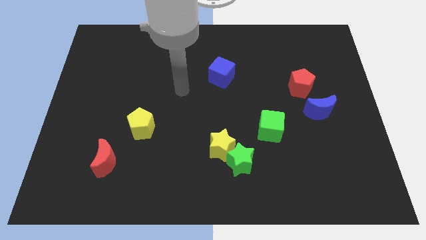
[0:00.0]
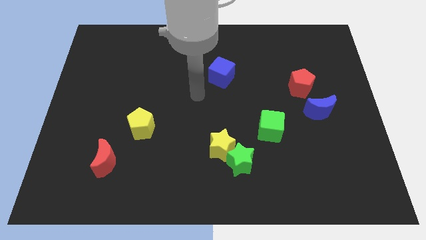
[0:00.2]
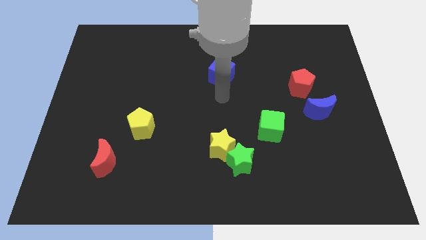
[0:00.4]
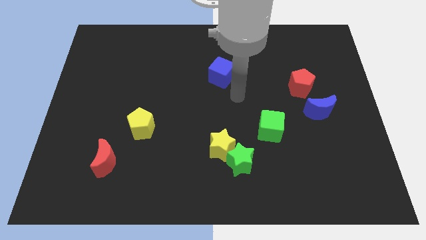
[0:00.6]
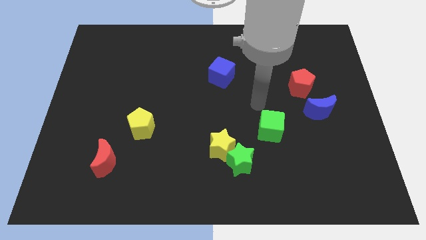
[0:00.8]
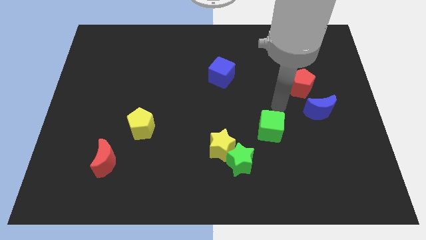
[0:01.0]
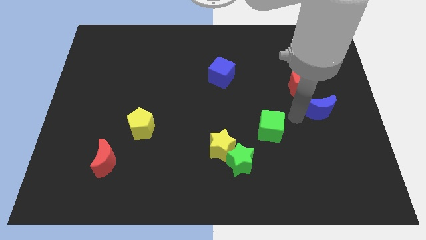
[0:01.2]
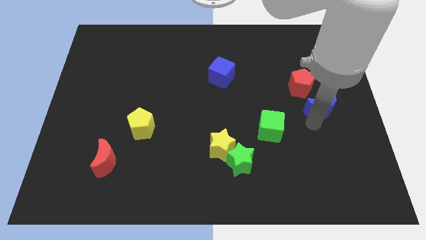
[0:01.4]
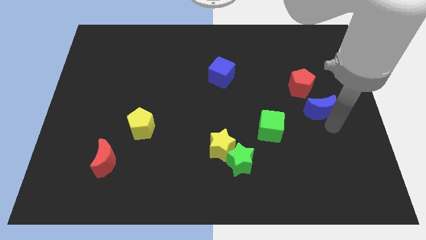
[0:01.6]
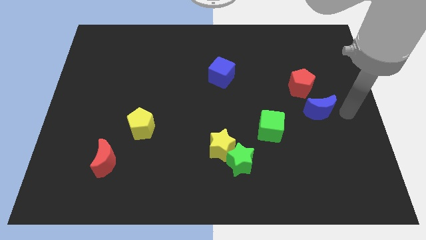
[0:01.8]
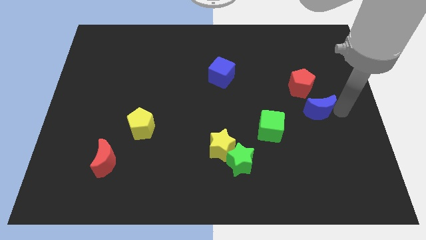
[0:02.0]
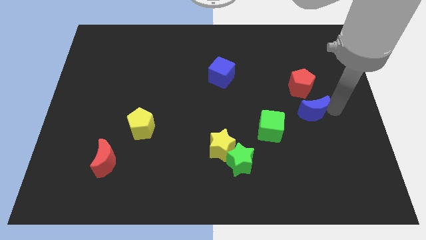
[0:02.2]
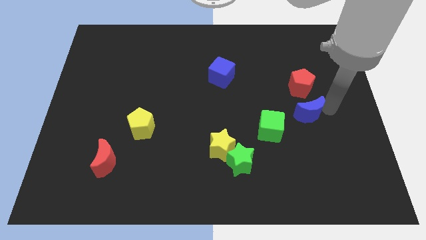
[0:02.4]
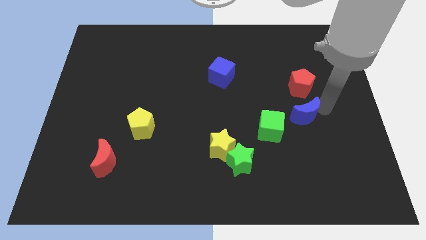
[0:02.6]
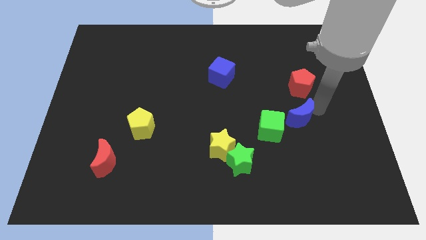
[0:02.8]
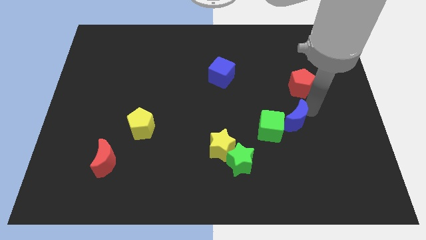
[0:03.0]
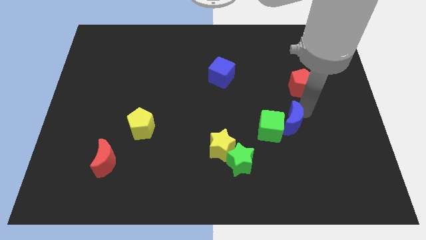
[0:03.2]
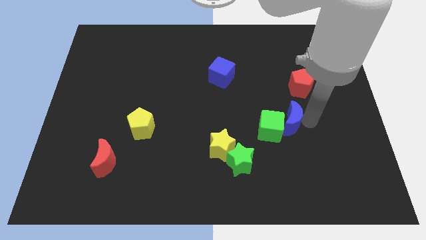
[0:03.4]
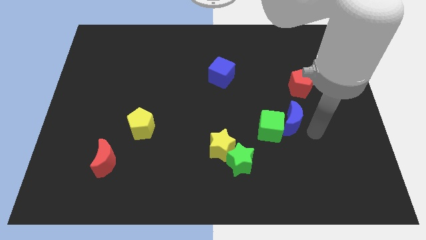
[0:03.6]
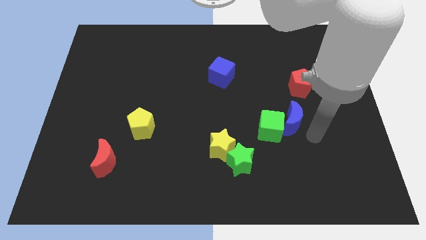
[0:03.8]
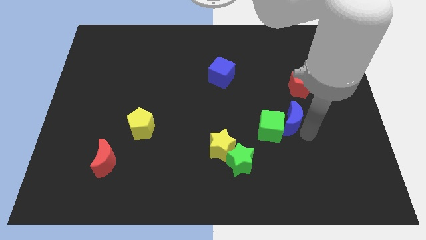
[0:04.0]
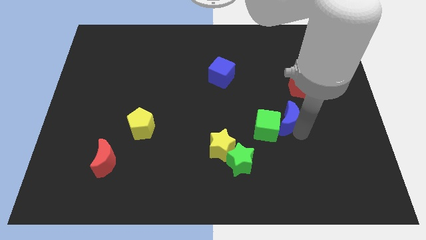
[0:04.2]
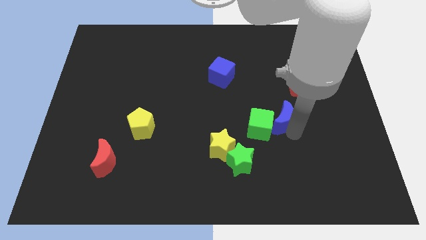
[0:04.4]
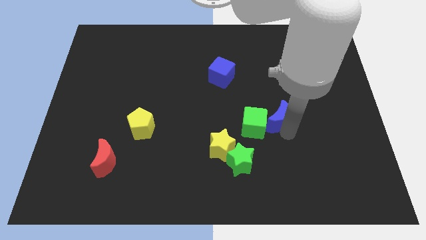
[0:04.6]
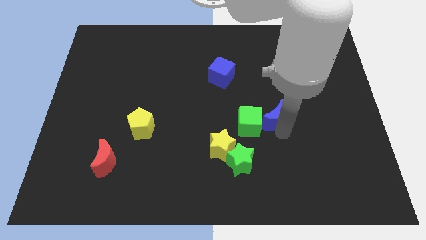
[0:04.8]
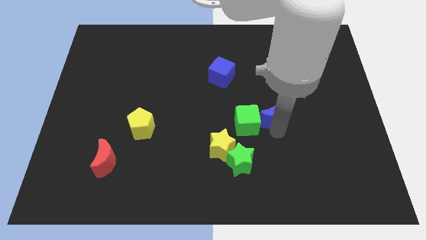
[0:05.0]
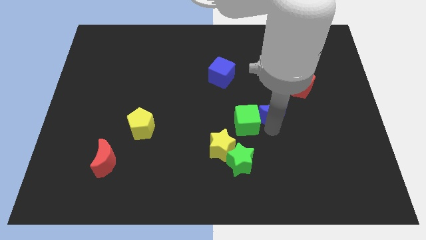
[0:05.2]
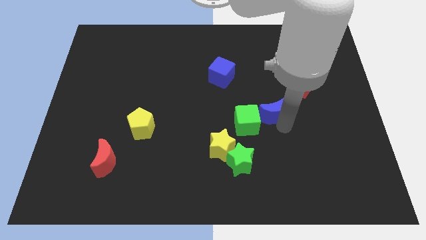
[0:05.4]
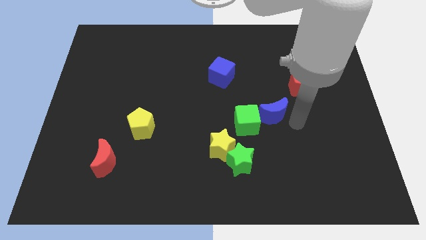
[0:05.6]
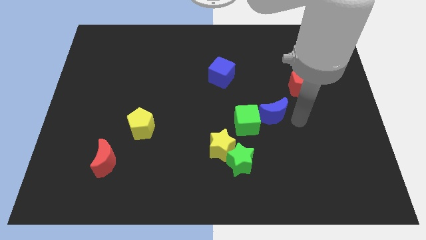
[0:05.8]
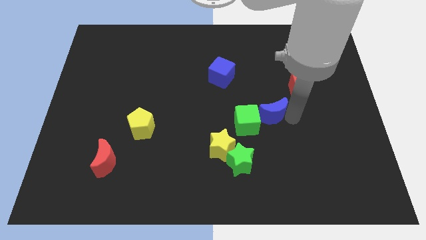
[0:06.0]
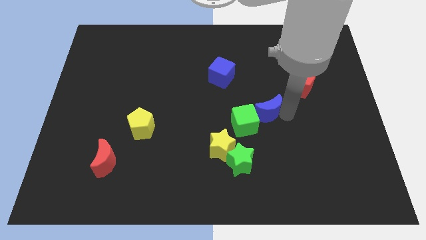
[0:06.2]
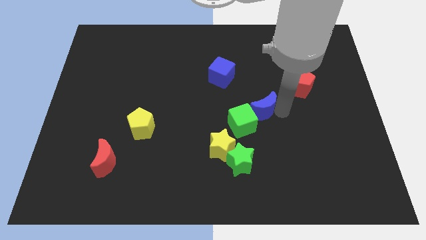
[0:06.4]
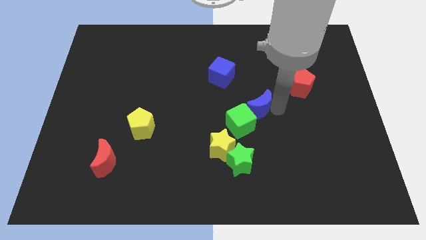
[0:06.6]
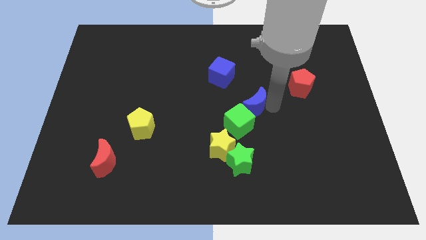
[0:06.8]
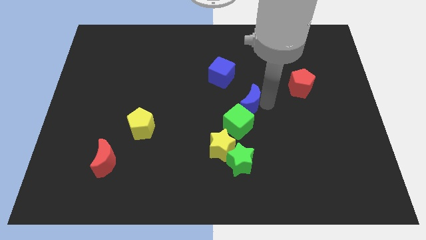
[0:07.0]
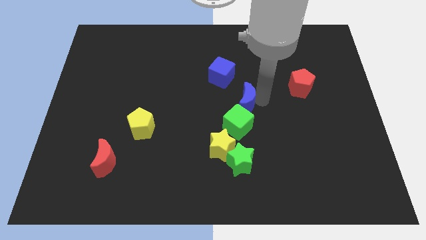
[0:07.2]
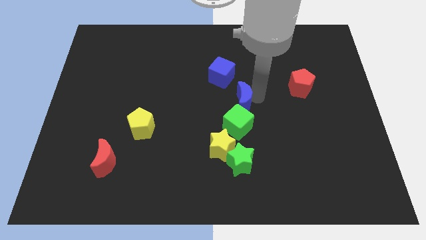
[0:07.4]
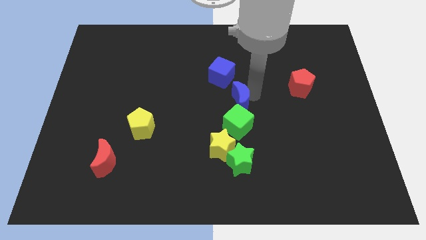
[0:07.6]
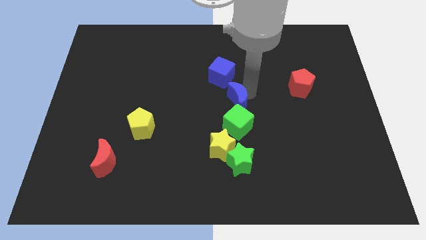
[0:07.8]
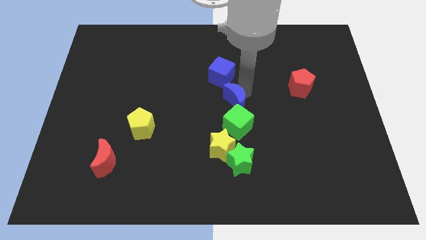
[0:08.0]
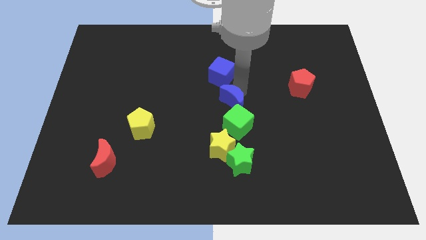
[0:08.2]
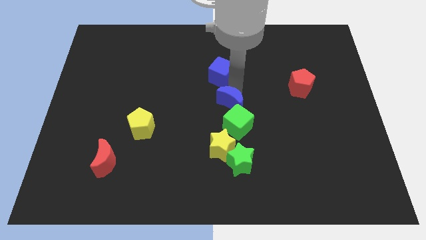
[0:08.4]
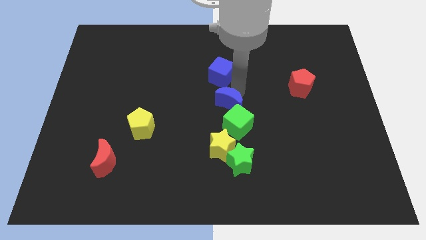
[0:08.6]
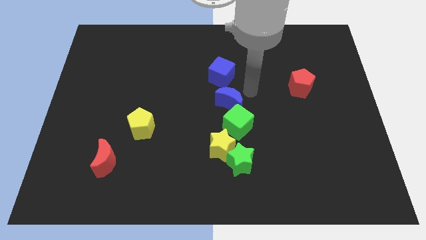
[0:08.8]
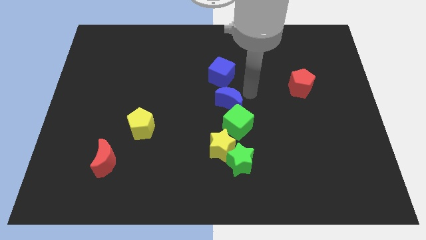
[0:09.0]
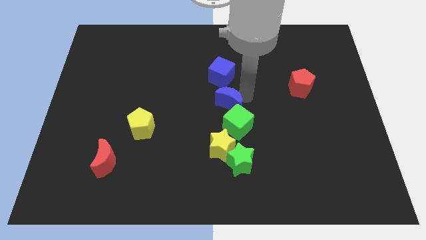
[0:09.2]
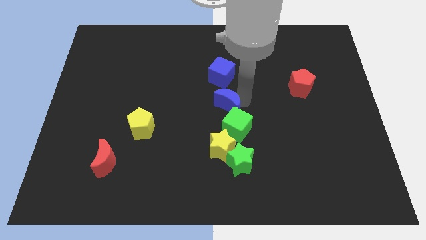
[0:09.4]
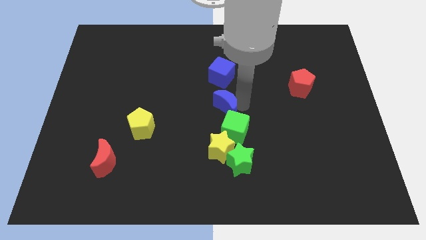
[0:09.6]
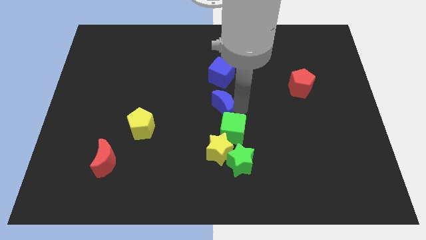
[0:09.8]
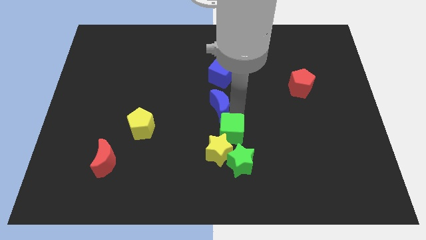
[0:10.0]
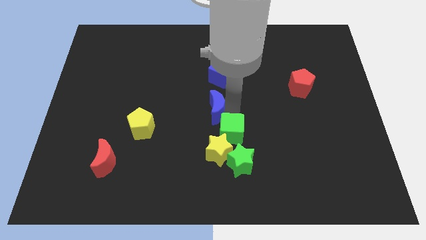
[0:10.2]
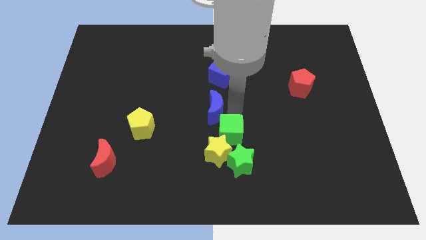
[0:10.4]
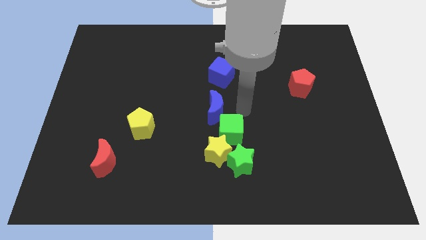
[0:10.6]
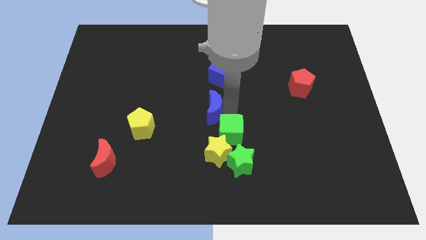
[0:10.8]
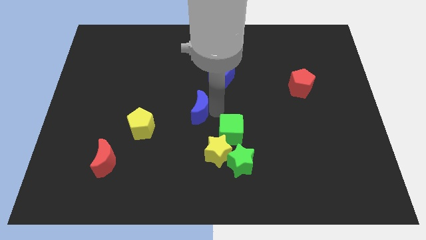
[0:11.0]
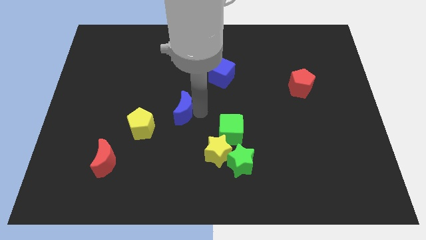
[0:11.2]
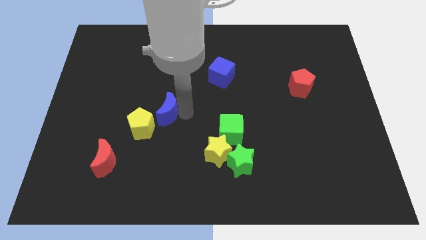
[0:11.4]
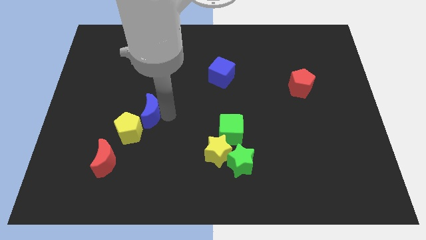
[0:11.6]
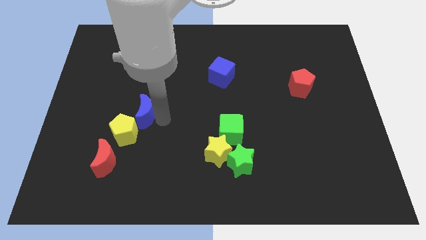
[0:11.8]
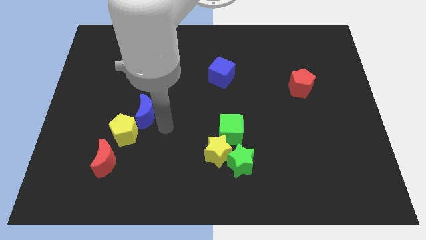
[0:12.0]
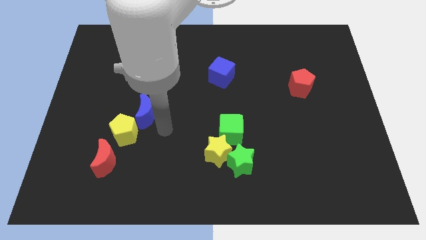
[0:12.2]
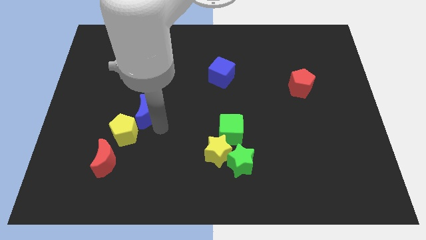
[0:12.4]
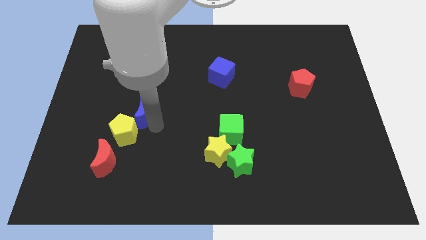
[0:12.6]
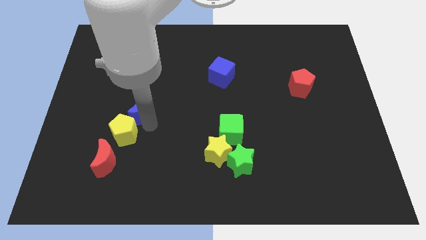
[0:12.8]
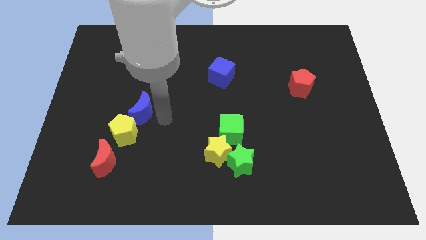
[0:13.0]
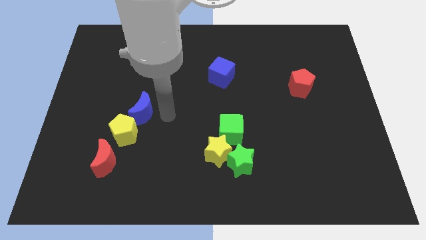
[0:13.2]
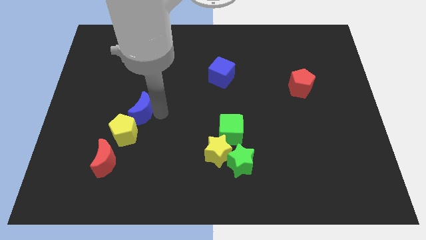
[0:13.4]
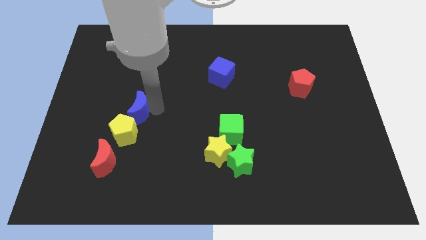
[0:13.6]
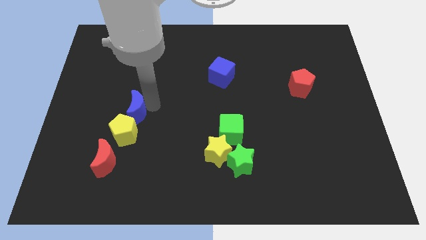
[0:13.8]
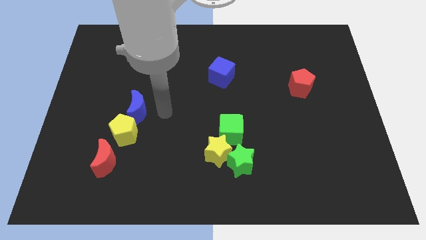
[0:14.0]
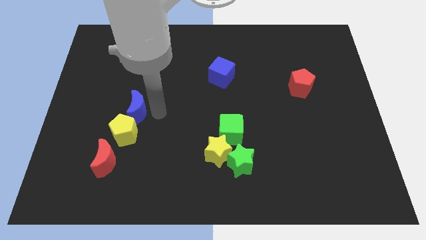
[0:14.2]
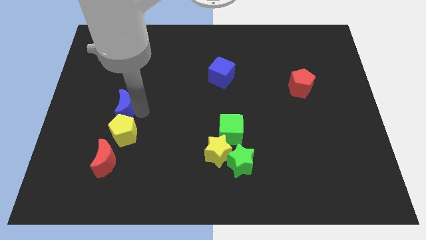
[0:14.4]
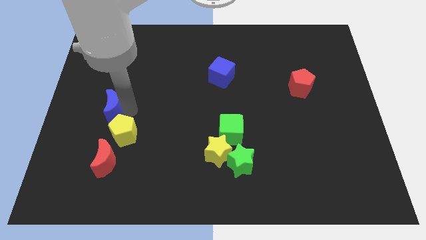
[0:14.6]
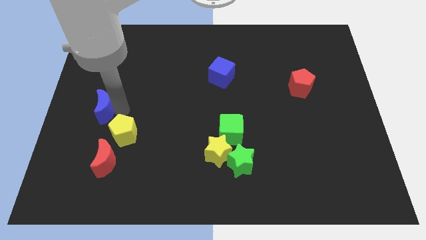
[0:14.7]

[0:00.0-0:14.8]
put the blue moon to the center left
